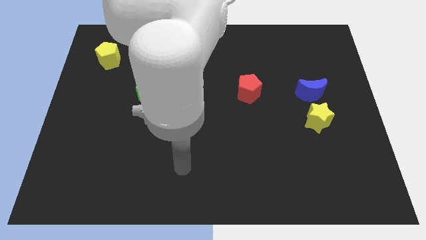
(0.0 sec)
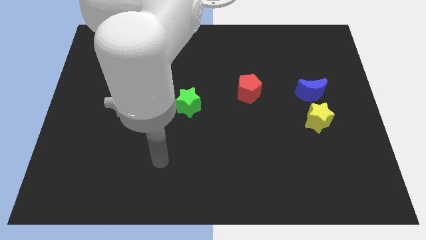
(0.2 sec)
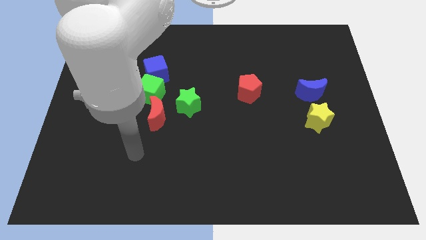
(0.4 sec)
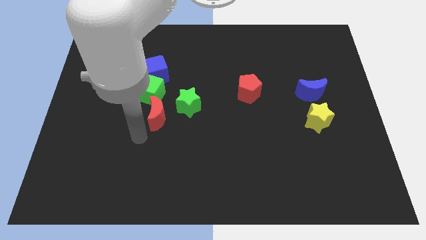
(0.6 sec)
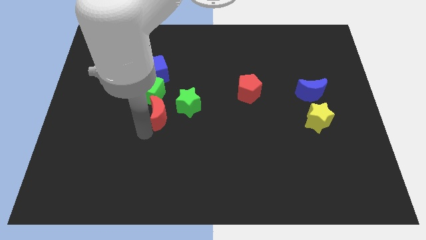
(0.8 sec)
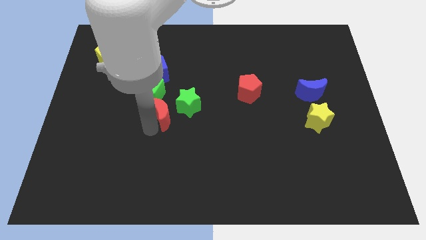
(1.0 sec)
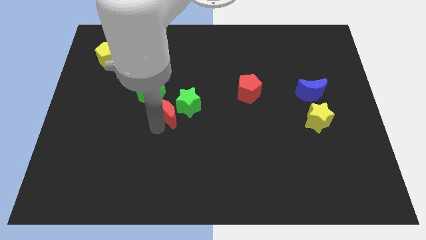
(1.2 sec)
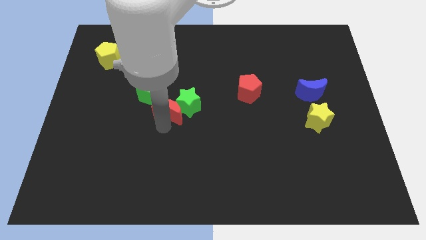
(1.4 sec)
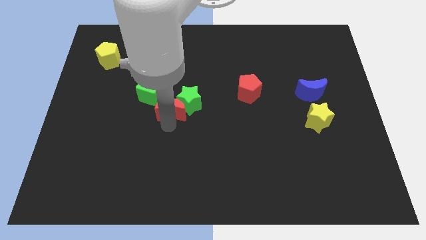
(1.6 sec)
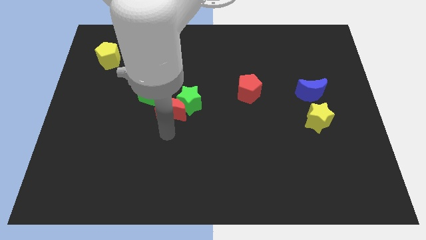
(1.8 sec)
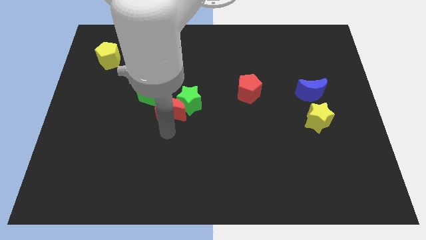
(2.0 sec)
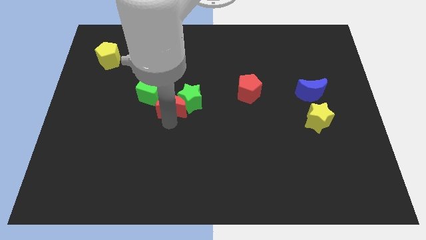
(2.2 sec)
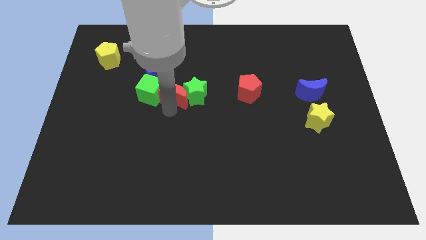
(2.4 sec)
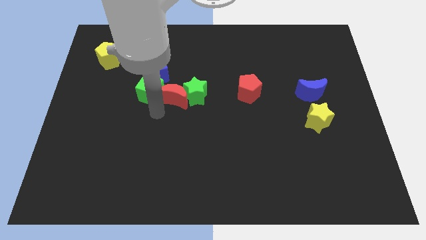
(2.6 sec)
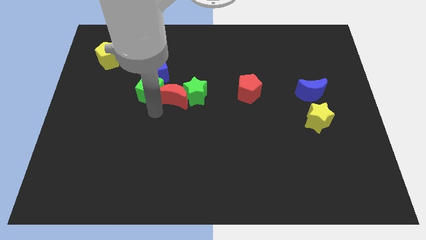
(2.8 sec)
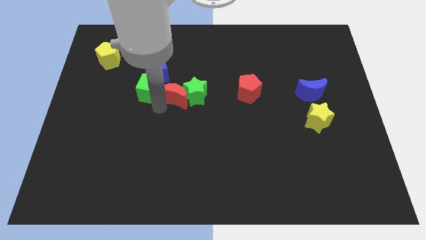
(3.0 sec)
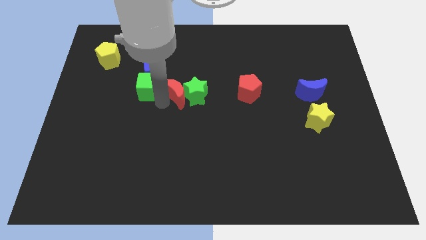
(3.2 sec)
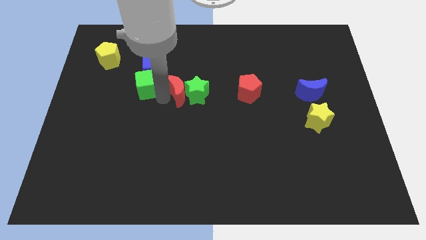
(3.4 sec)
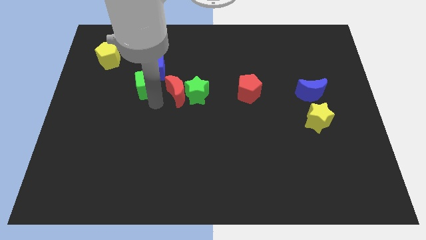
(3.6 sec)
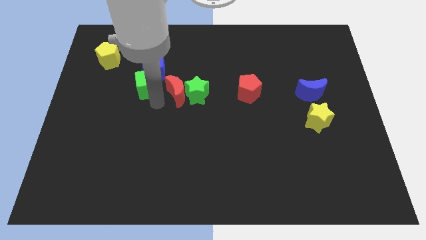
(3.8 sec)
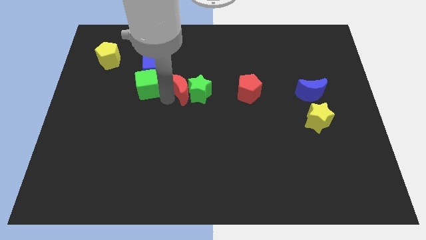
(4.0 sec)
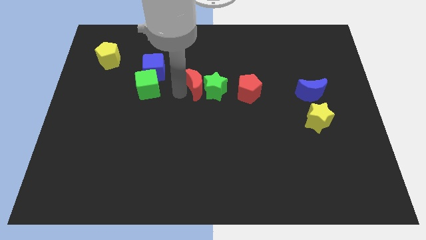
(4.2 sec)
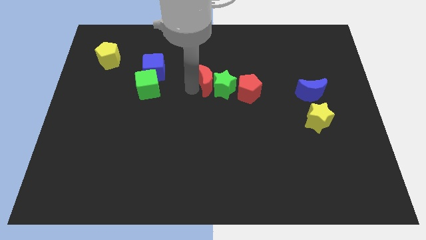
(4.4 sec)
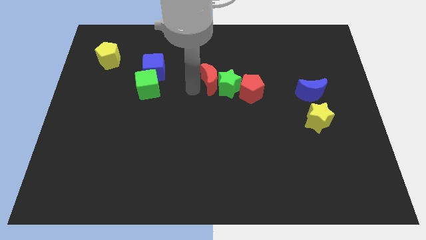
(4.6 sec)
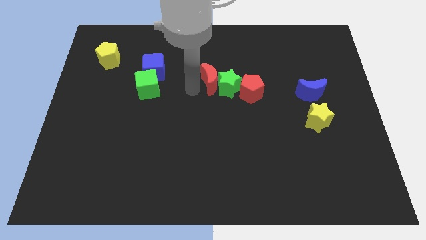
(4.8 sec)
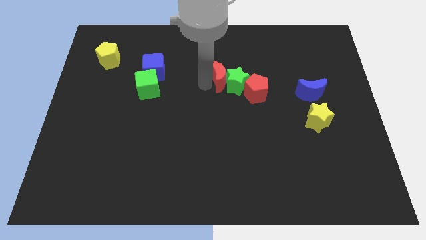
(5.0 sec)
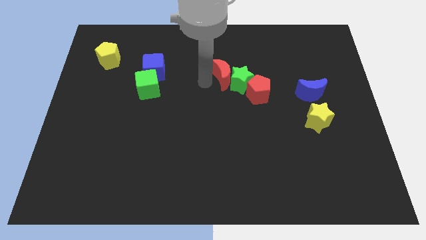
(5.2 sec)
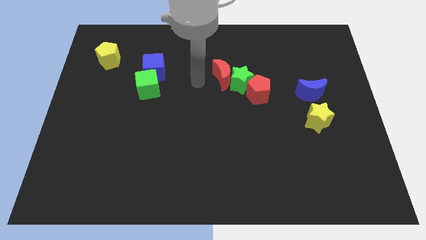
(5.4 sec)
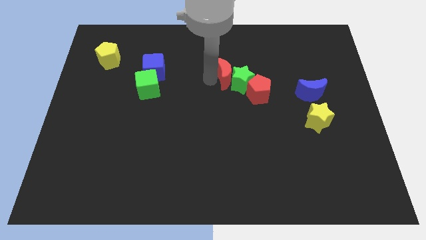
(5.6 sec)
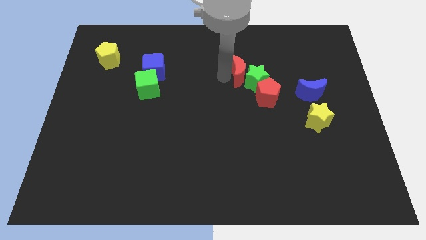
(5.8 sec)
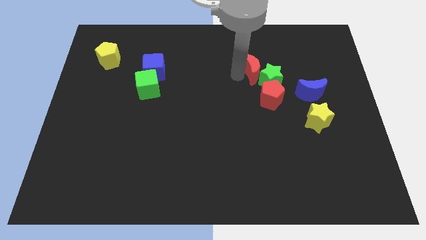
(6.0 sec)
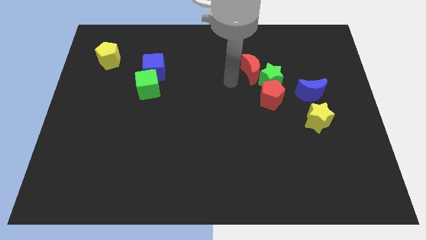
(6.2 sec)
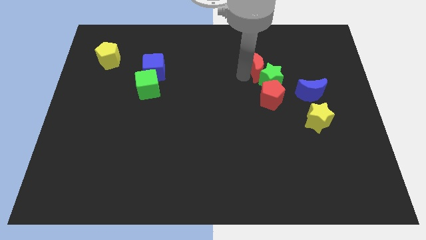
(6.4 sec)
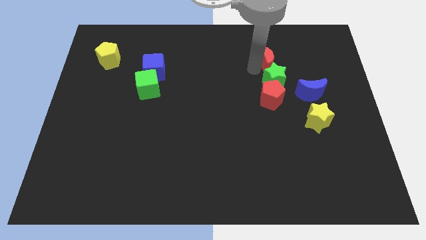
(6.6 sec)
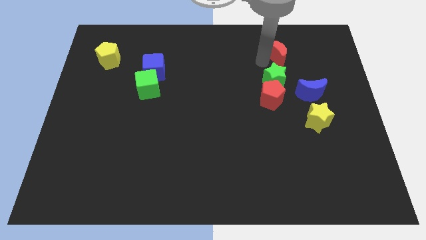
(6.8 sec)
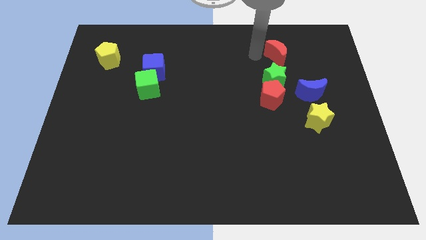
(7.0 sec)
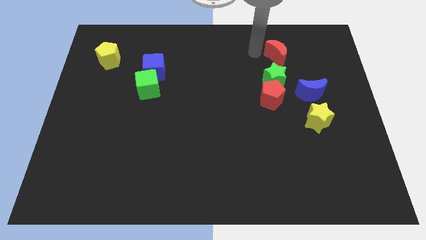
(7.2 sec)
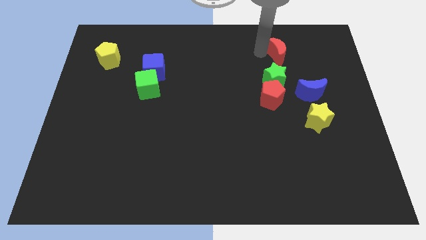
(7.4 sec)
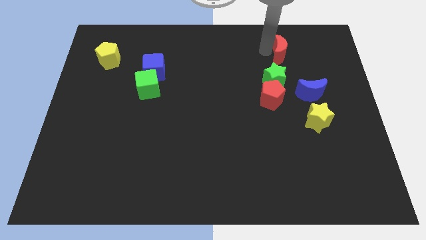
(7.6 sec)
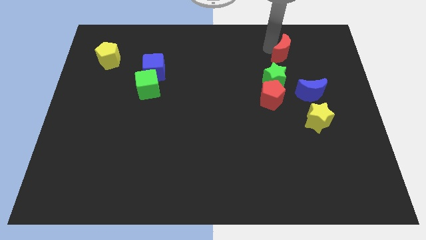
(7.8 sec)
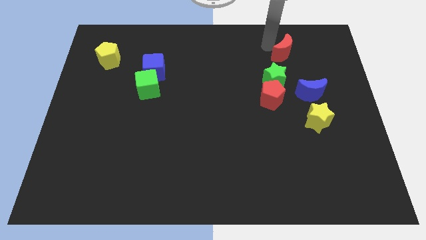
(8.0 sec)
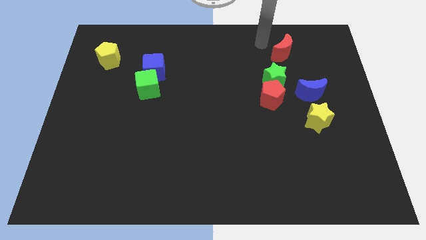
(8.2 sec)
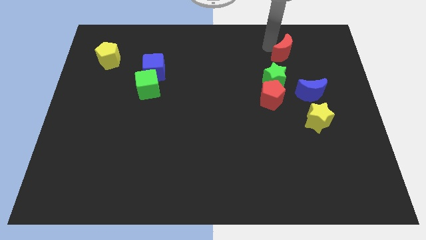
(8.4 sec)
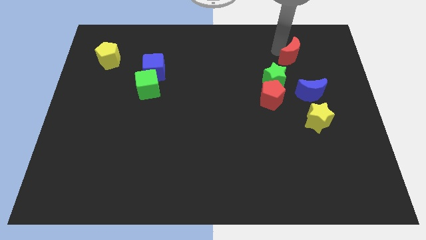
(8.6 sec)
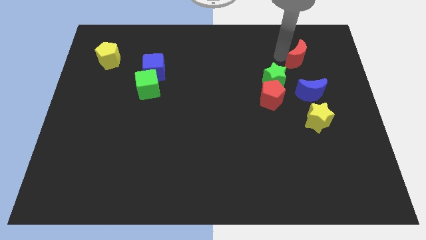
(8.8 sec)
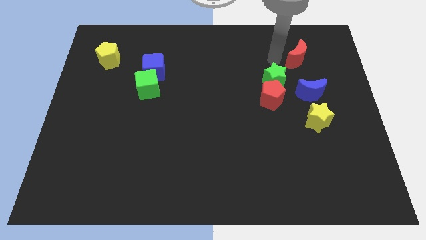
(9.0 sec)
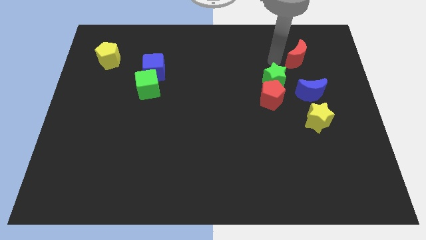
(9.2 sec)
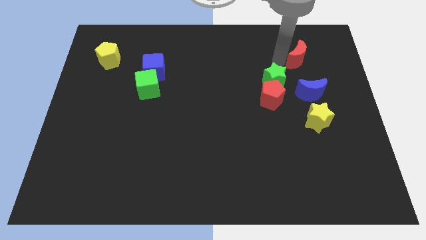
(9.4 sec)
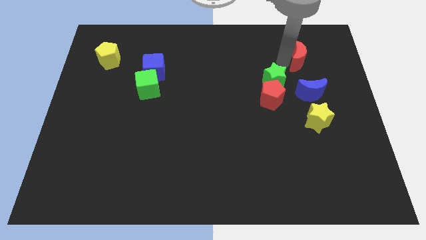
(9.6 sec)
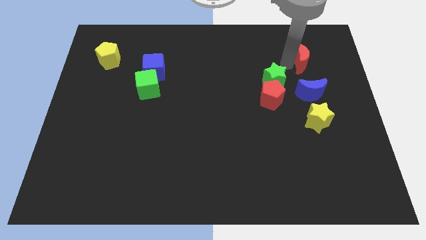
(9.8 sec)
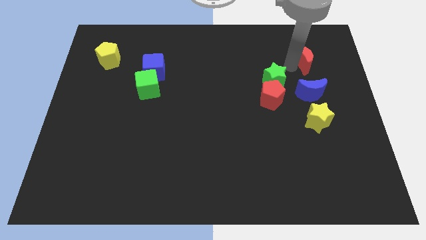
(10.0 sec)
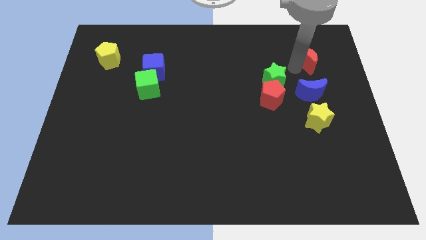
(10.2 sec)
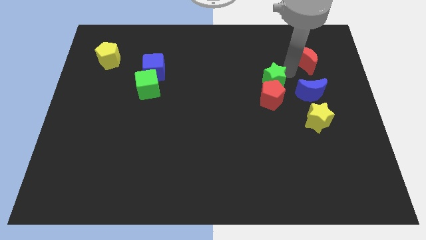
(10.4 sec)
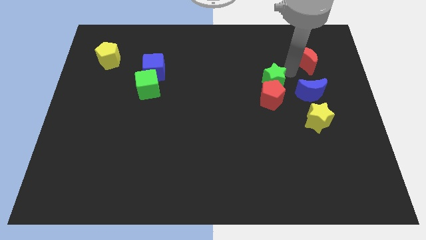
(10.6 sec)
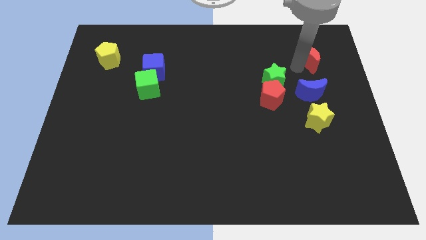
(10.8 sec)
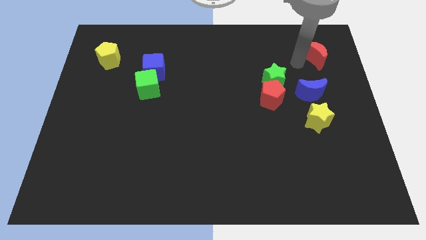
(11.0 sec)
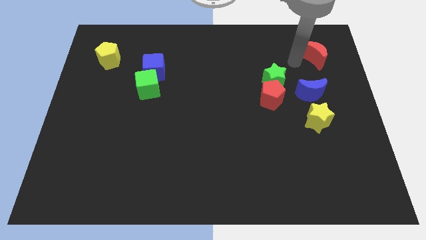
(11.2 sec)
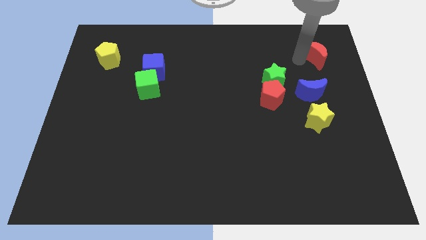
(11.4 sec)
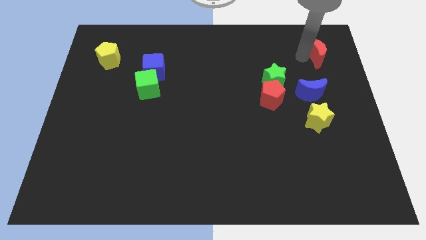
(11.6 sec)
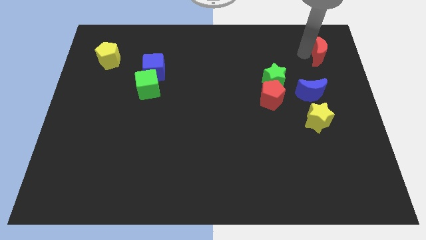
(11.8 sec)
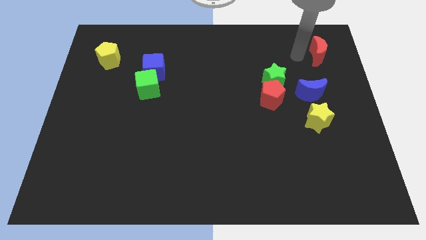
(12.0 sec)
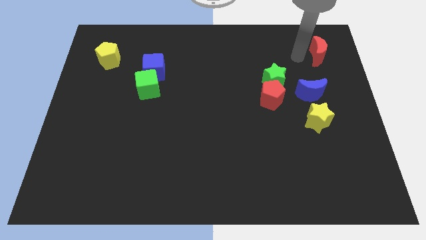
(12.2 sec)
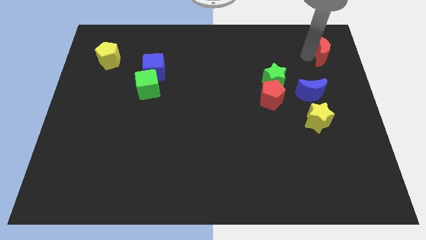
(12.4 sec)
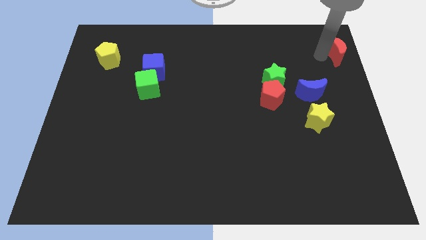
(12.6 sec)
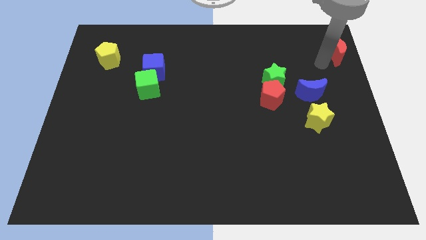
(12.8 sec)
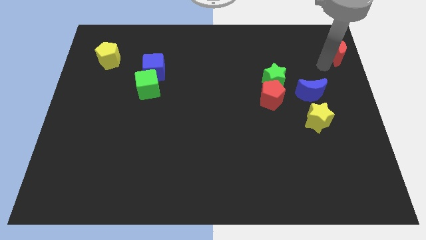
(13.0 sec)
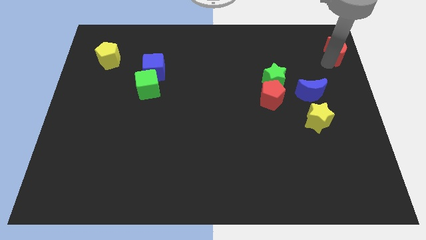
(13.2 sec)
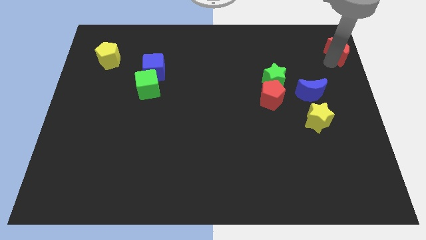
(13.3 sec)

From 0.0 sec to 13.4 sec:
slide the red moon to the upper right corner
